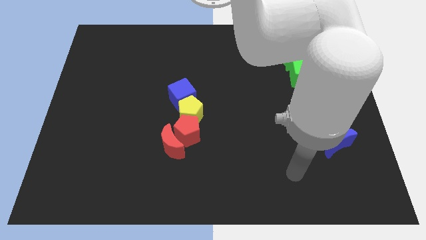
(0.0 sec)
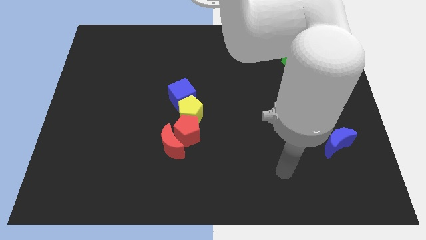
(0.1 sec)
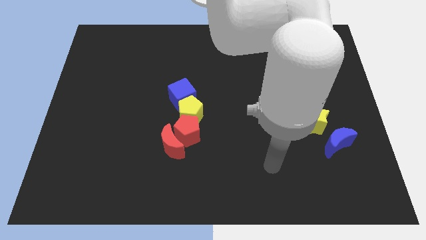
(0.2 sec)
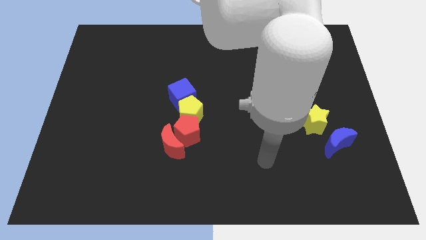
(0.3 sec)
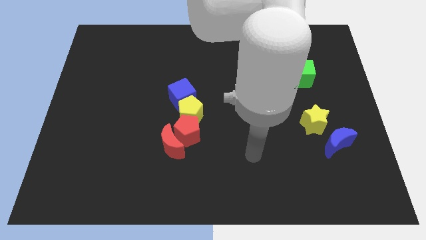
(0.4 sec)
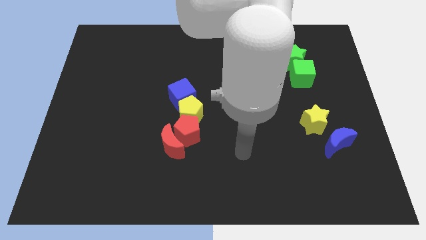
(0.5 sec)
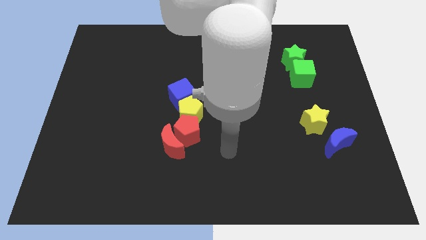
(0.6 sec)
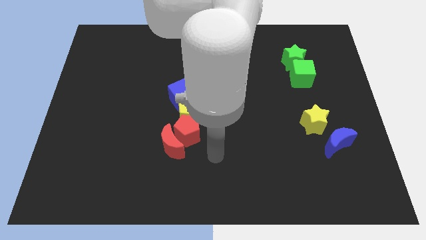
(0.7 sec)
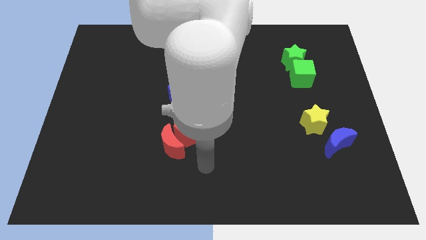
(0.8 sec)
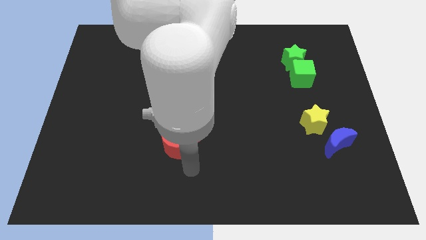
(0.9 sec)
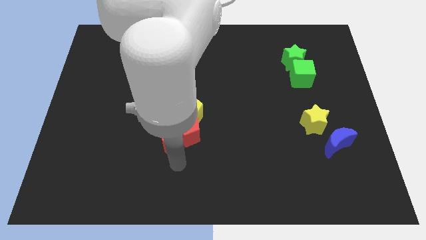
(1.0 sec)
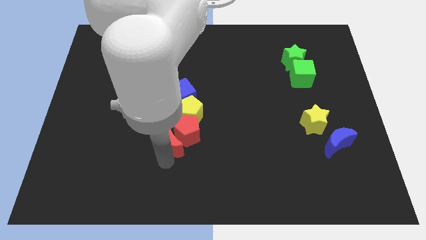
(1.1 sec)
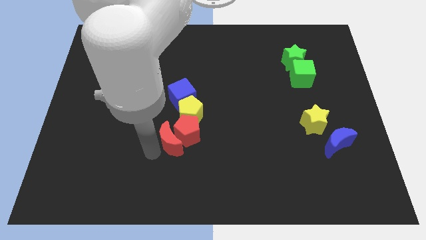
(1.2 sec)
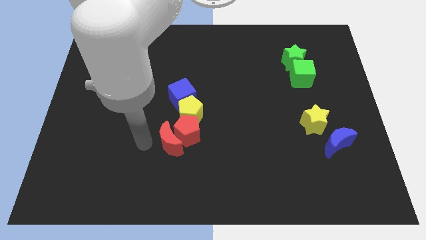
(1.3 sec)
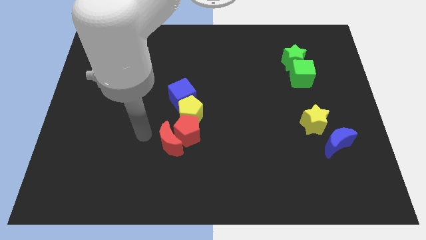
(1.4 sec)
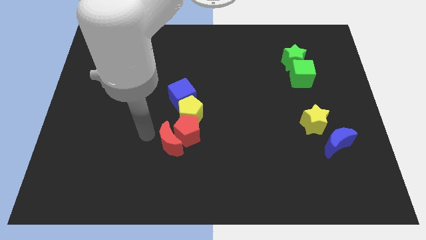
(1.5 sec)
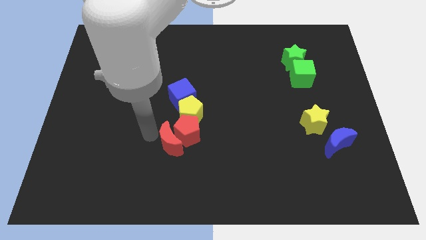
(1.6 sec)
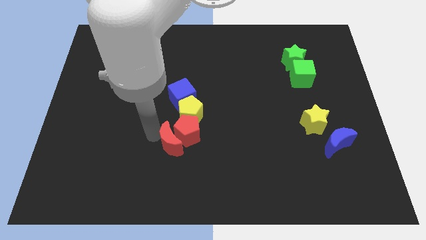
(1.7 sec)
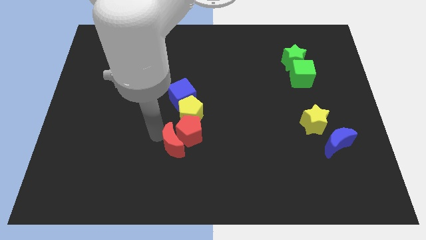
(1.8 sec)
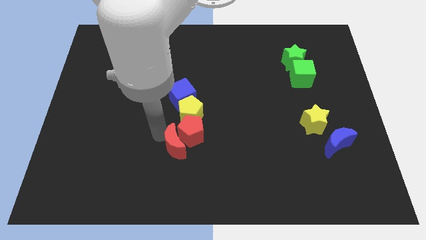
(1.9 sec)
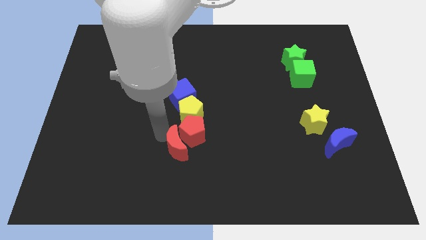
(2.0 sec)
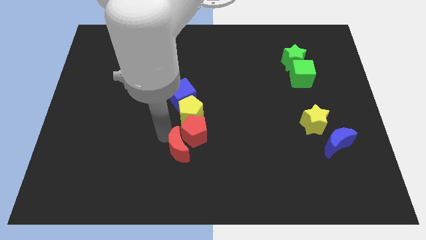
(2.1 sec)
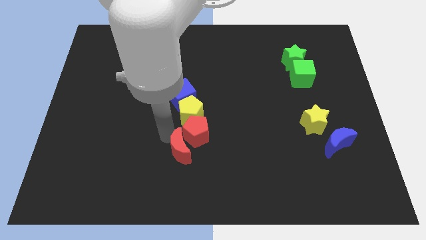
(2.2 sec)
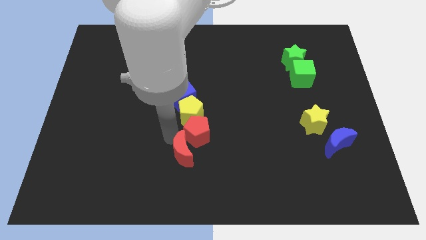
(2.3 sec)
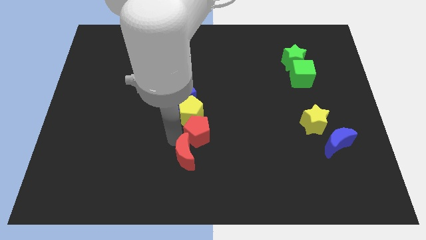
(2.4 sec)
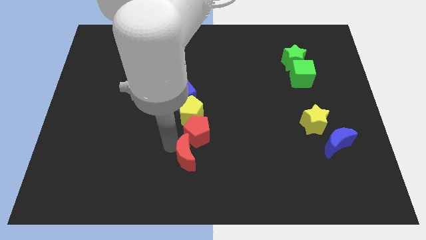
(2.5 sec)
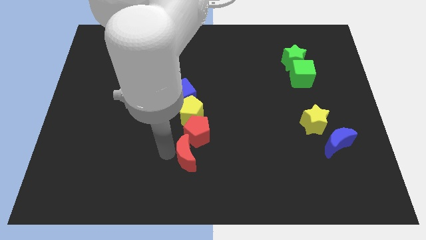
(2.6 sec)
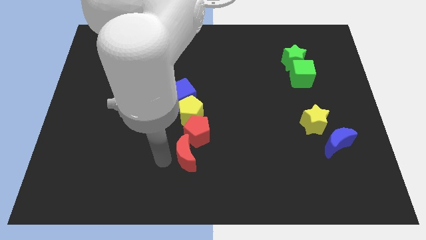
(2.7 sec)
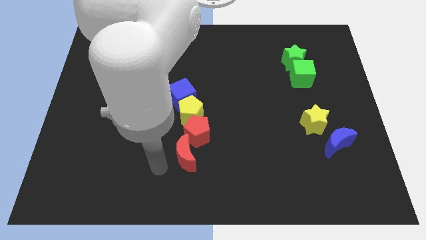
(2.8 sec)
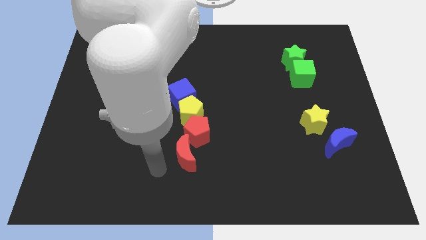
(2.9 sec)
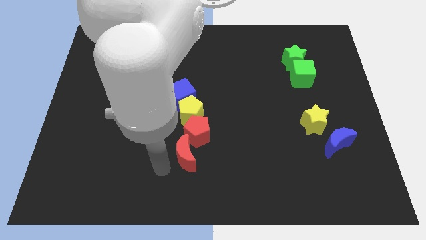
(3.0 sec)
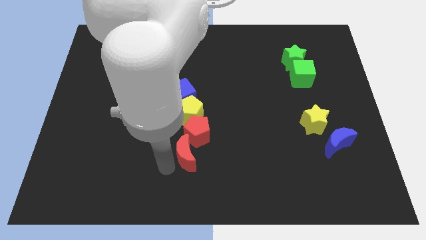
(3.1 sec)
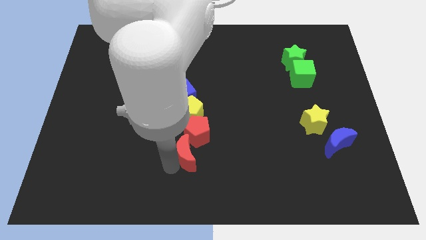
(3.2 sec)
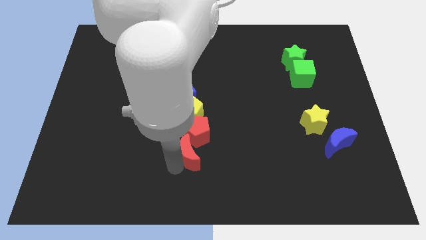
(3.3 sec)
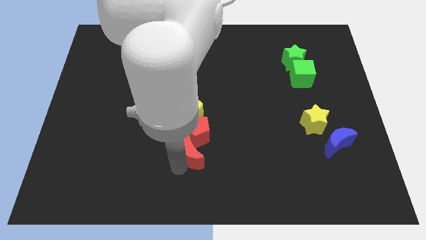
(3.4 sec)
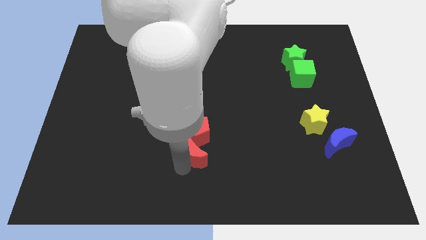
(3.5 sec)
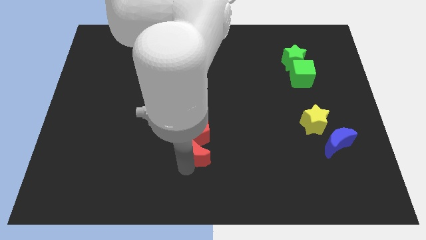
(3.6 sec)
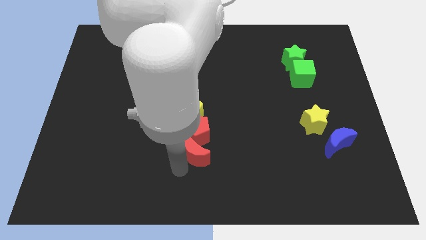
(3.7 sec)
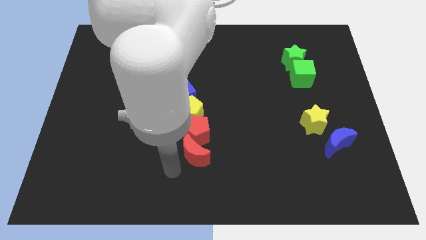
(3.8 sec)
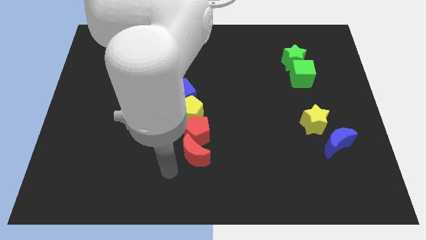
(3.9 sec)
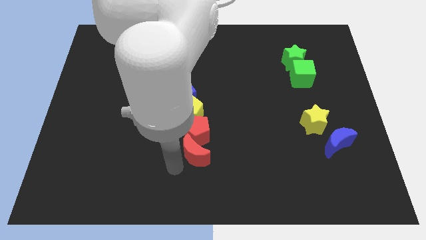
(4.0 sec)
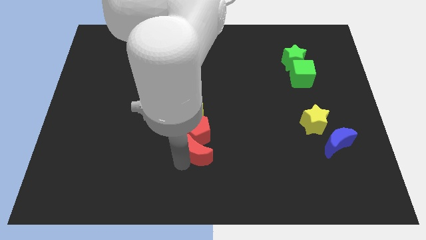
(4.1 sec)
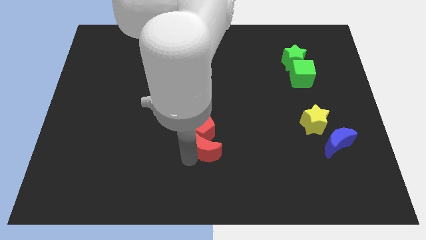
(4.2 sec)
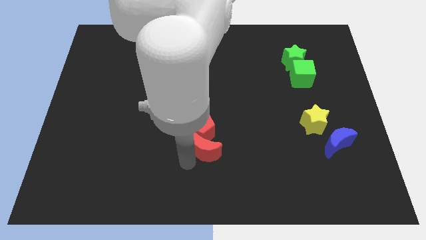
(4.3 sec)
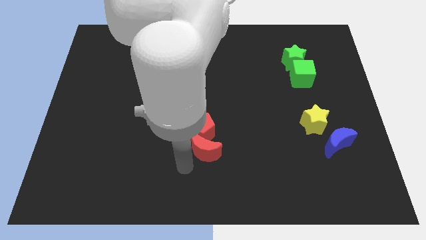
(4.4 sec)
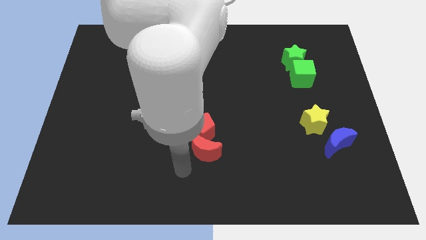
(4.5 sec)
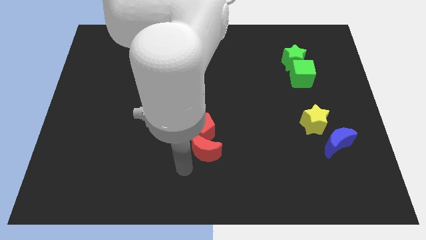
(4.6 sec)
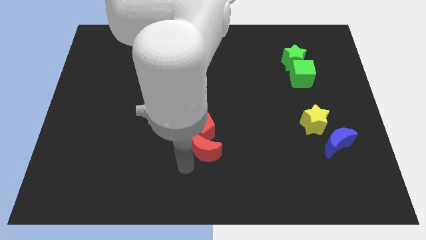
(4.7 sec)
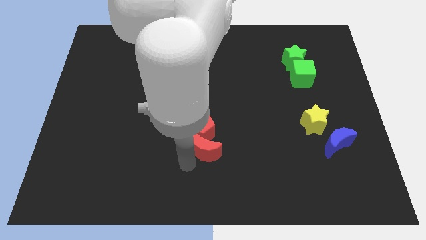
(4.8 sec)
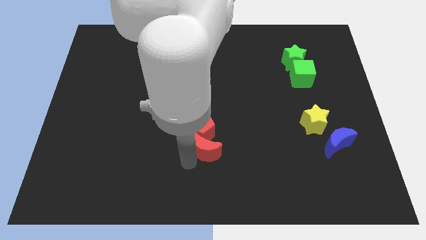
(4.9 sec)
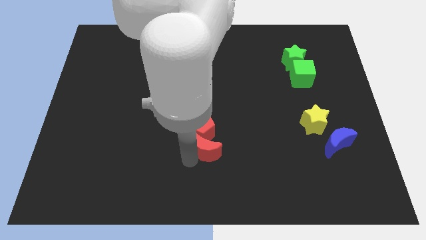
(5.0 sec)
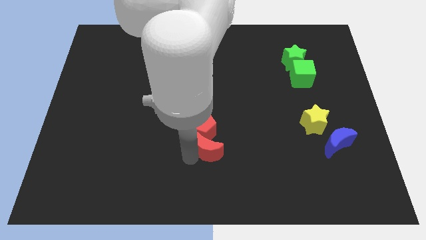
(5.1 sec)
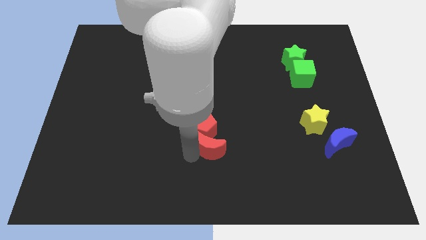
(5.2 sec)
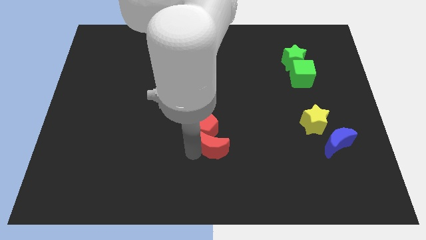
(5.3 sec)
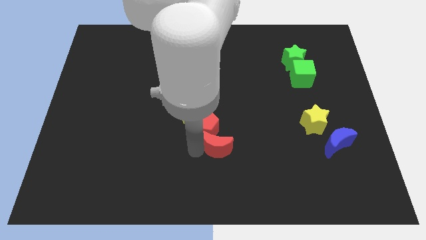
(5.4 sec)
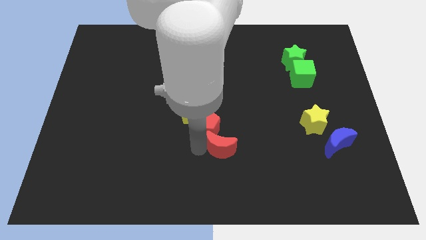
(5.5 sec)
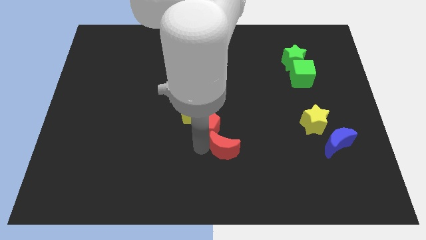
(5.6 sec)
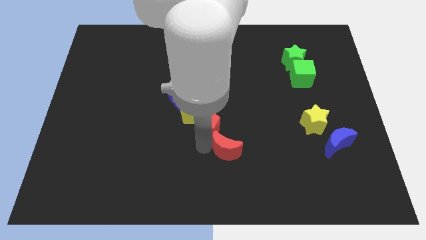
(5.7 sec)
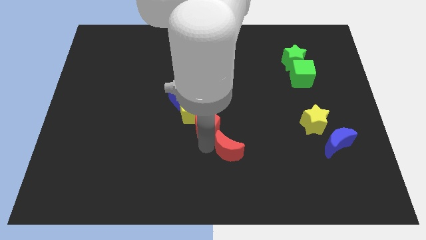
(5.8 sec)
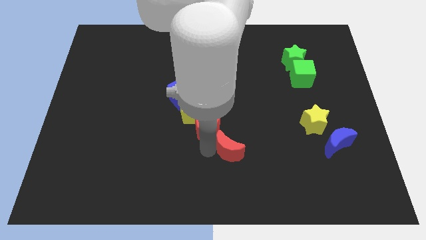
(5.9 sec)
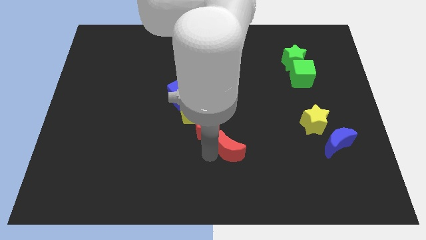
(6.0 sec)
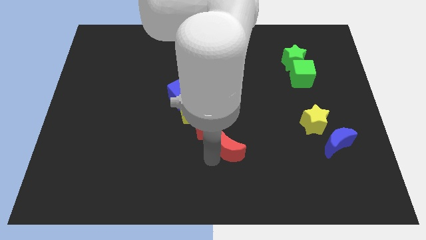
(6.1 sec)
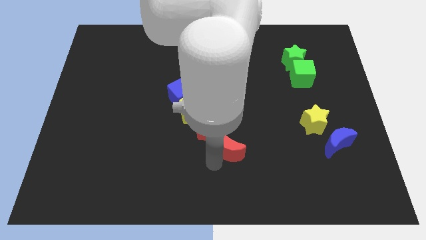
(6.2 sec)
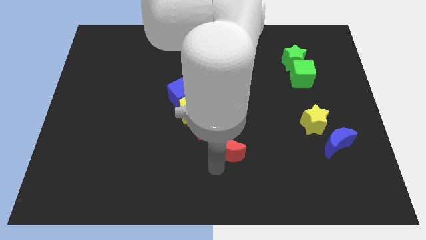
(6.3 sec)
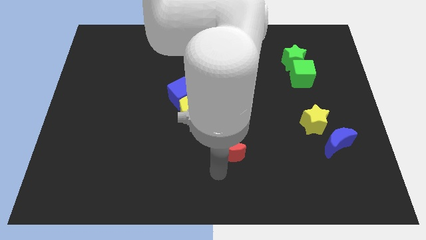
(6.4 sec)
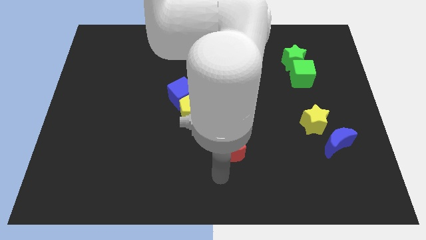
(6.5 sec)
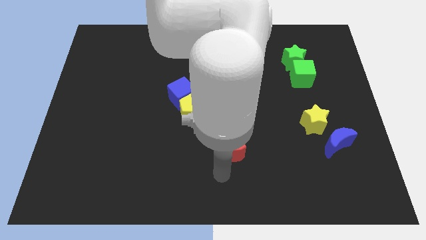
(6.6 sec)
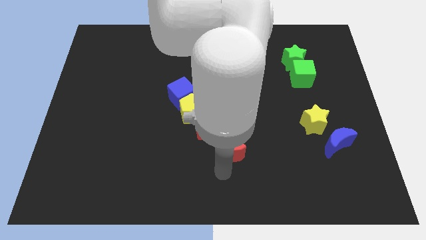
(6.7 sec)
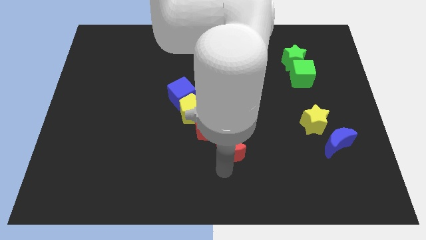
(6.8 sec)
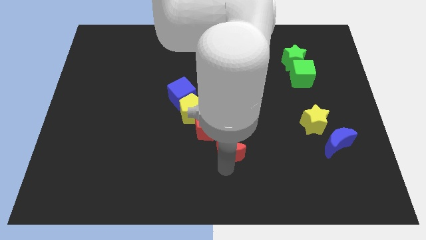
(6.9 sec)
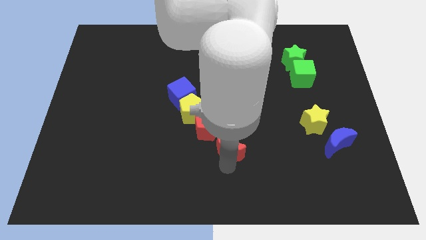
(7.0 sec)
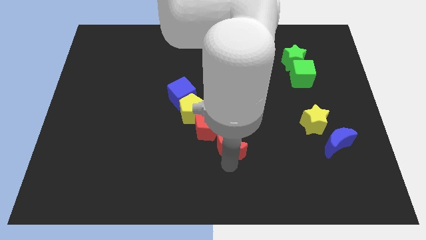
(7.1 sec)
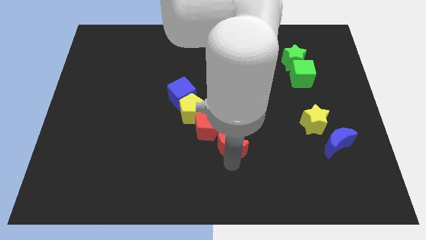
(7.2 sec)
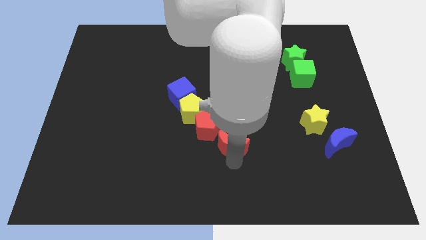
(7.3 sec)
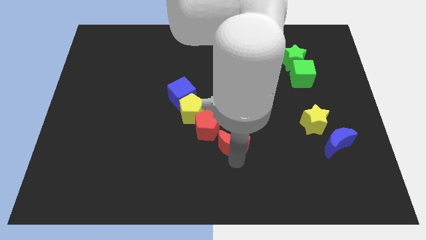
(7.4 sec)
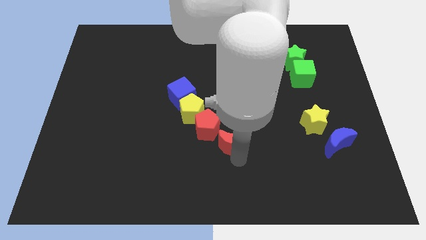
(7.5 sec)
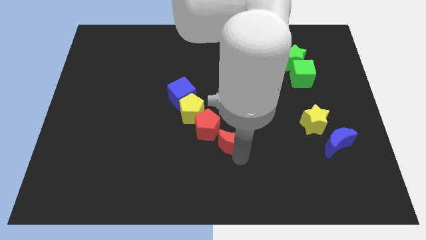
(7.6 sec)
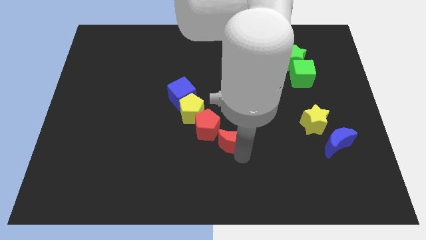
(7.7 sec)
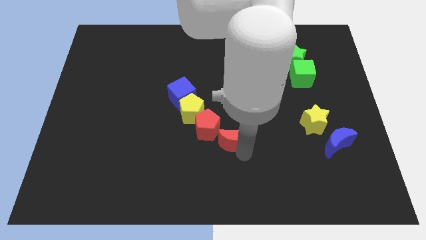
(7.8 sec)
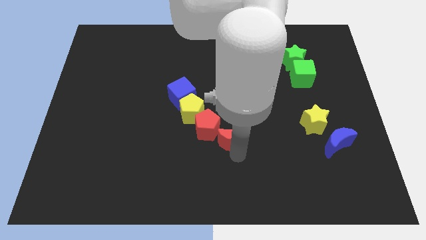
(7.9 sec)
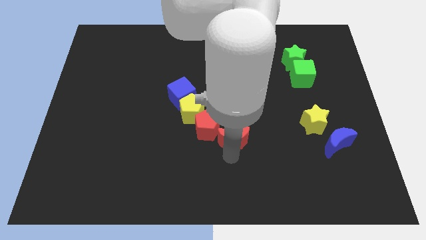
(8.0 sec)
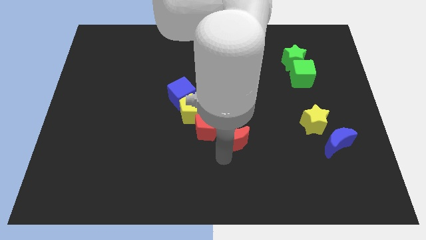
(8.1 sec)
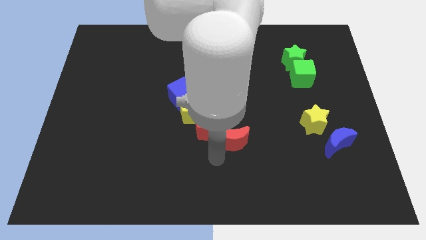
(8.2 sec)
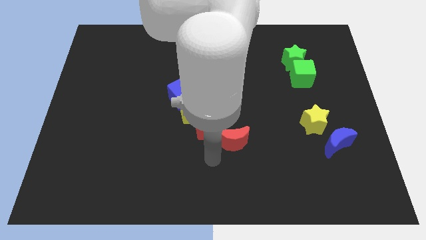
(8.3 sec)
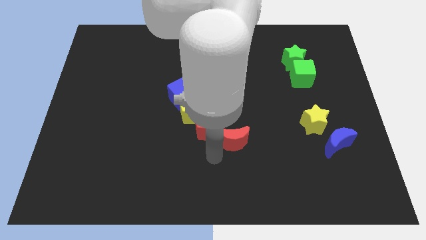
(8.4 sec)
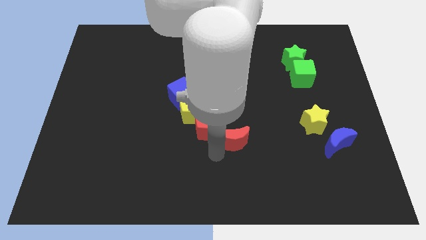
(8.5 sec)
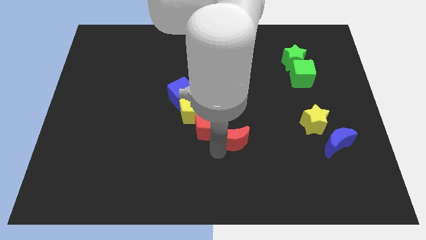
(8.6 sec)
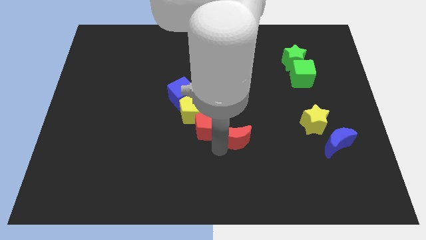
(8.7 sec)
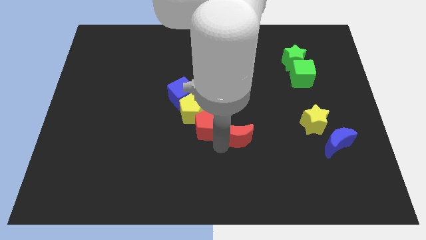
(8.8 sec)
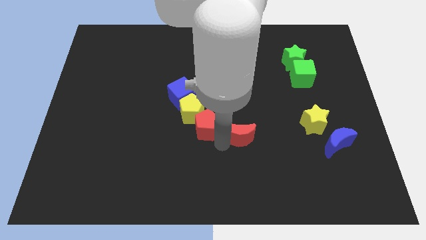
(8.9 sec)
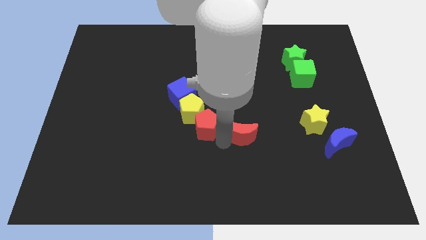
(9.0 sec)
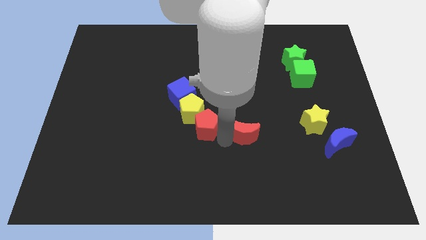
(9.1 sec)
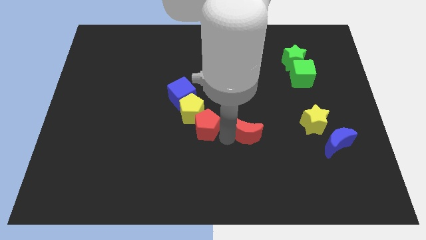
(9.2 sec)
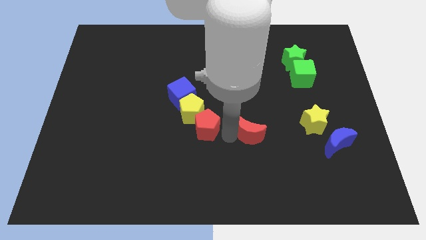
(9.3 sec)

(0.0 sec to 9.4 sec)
push the red moon left of the yellow star
